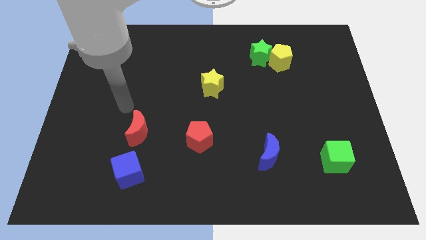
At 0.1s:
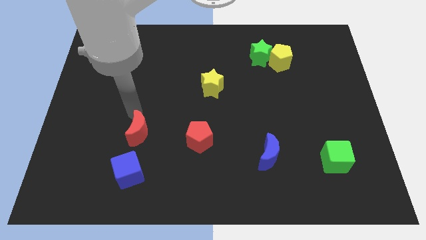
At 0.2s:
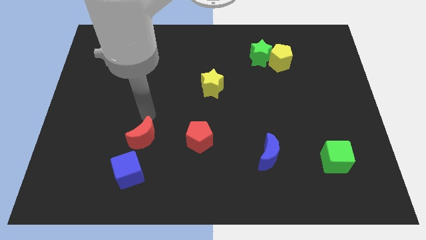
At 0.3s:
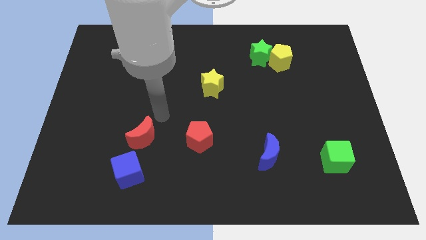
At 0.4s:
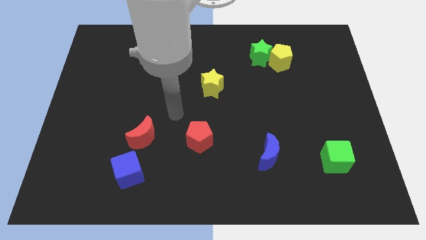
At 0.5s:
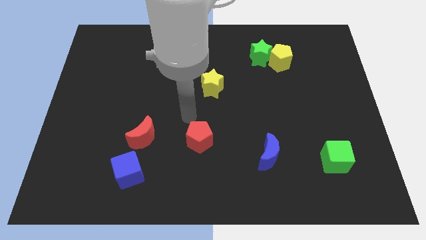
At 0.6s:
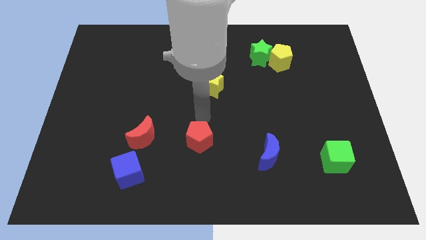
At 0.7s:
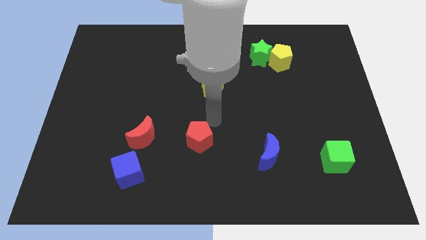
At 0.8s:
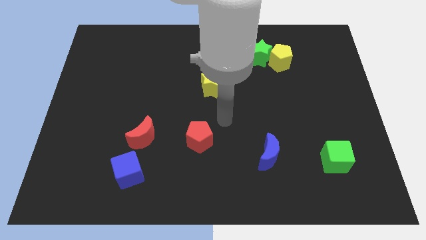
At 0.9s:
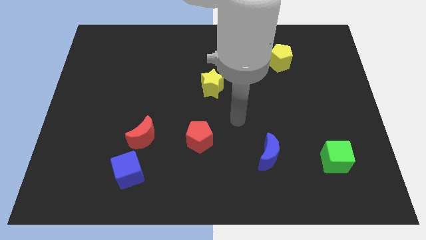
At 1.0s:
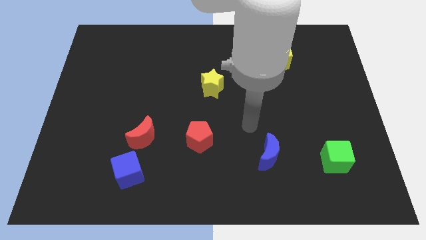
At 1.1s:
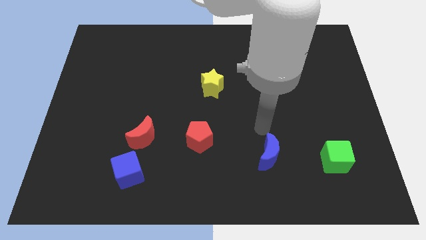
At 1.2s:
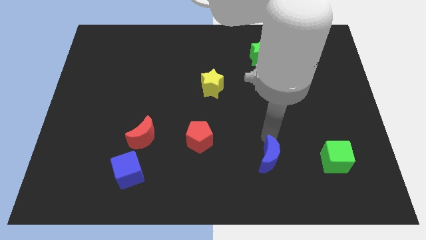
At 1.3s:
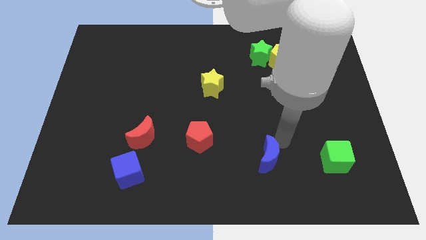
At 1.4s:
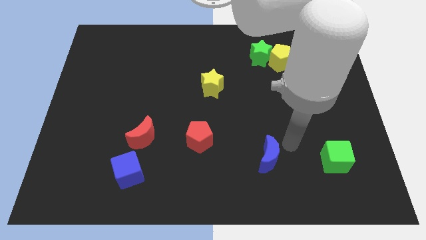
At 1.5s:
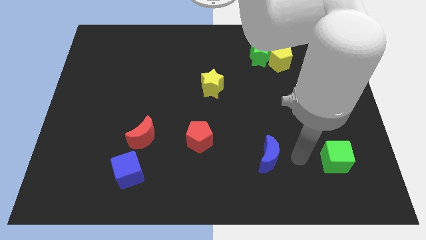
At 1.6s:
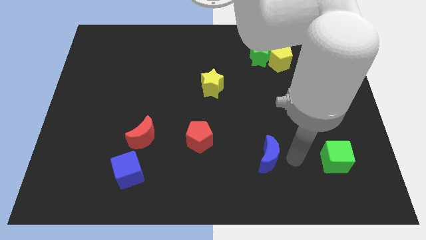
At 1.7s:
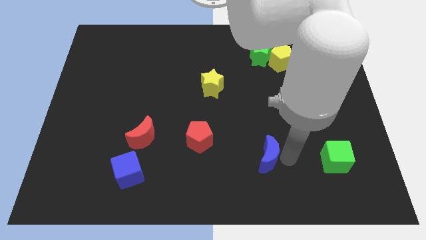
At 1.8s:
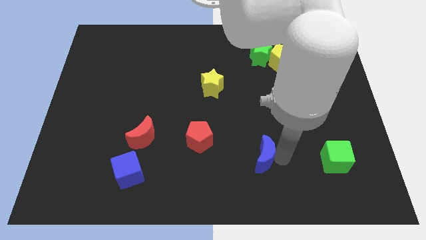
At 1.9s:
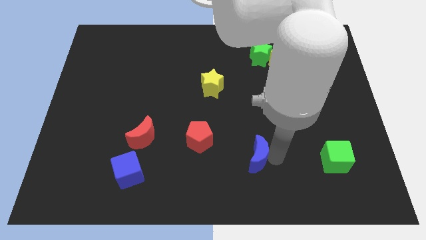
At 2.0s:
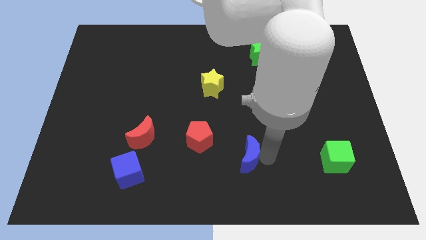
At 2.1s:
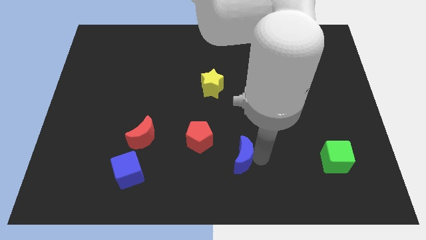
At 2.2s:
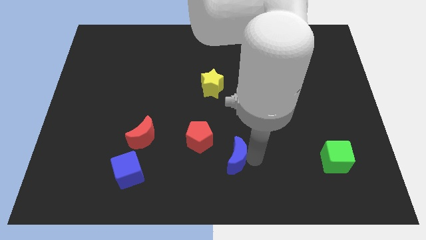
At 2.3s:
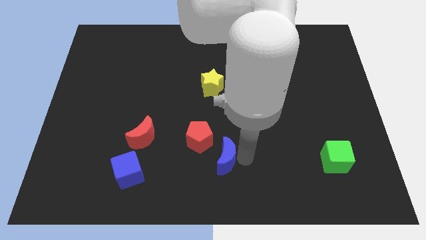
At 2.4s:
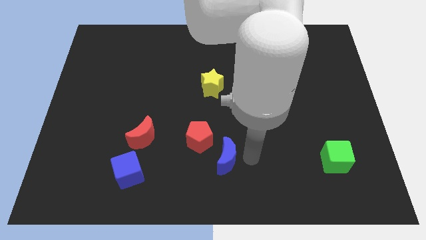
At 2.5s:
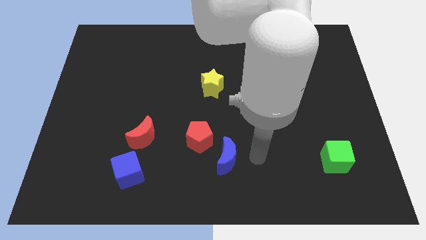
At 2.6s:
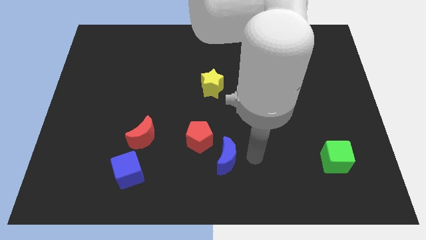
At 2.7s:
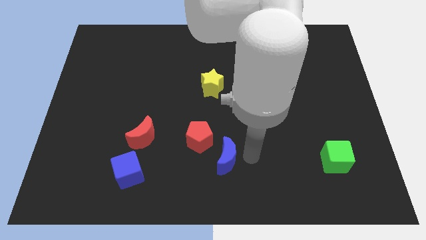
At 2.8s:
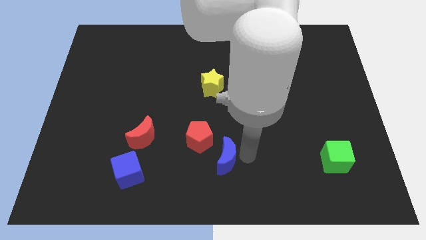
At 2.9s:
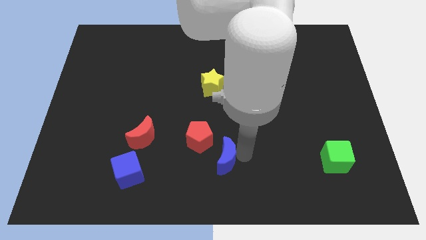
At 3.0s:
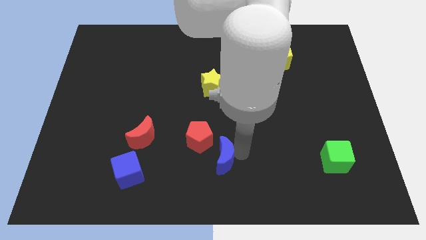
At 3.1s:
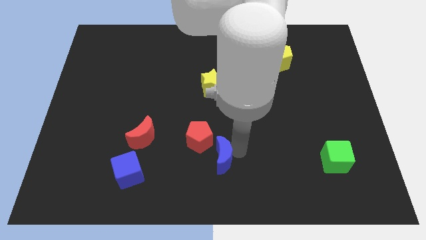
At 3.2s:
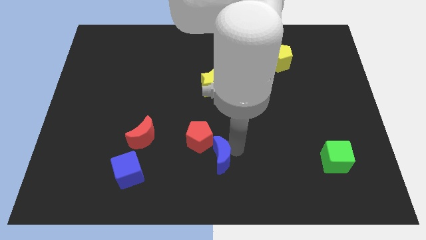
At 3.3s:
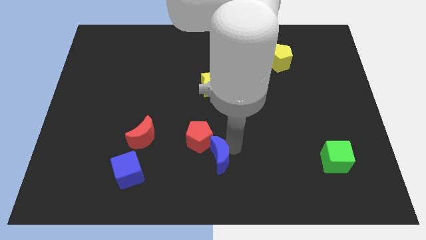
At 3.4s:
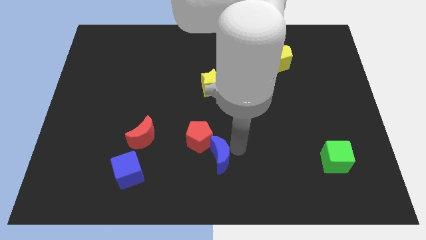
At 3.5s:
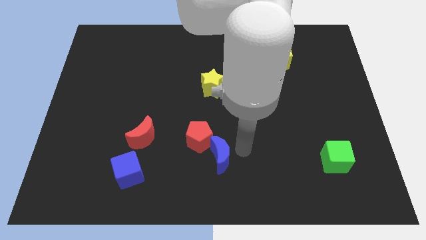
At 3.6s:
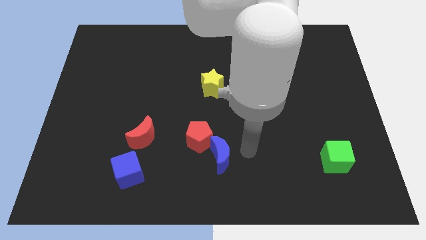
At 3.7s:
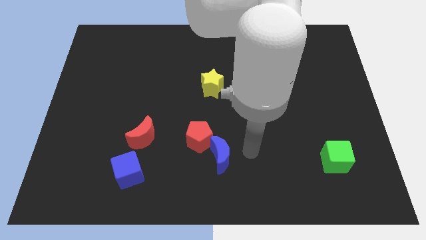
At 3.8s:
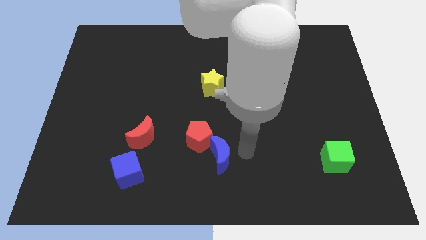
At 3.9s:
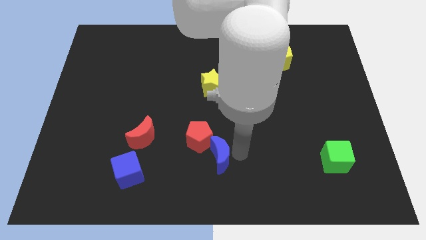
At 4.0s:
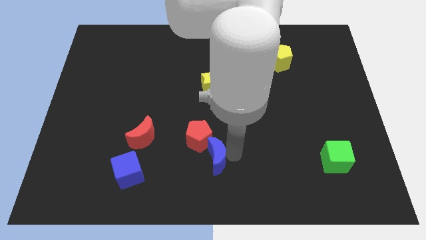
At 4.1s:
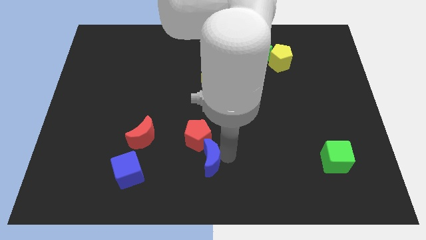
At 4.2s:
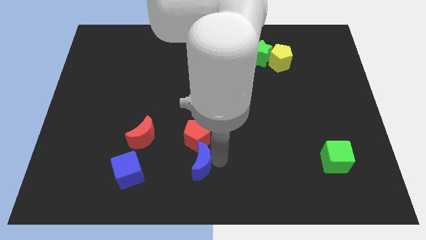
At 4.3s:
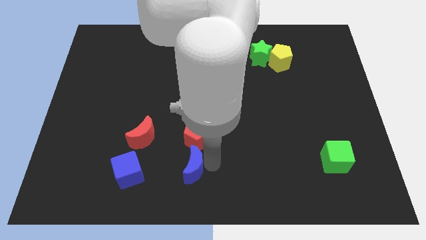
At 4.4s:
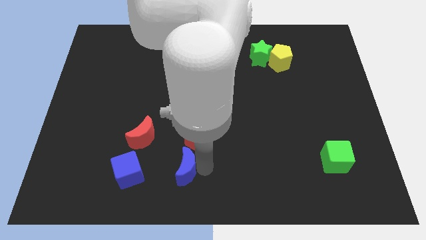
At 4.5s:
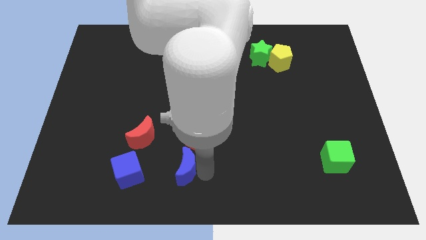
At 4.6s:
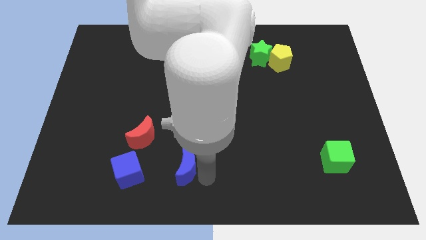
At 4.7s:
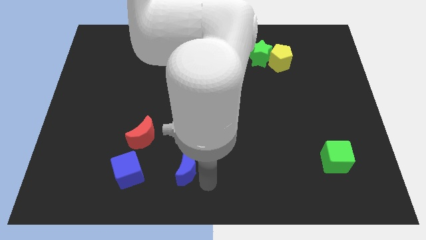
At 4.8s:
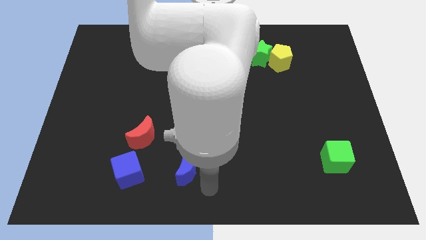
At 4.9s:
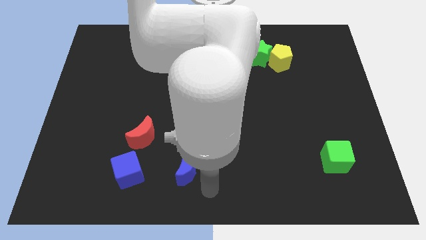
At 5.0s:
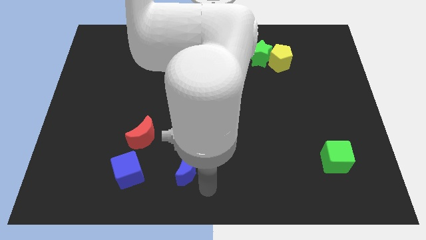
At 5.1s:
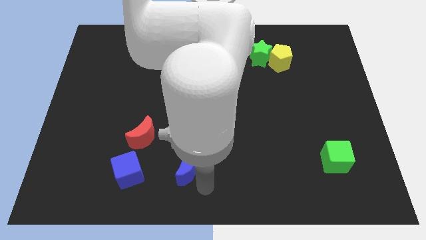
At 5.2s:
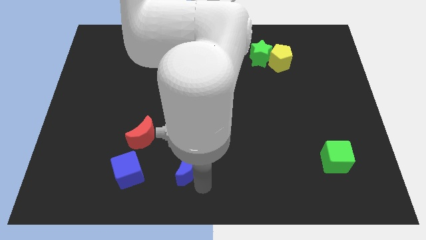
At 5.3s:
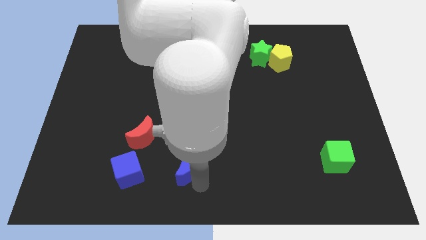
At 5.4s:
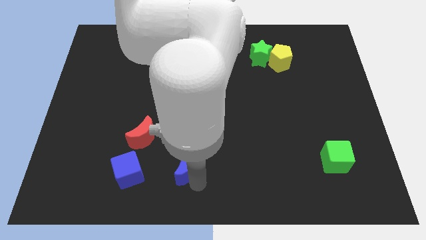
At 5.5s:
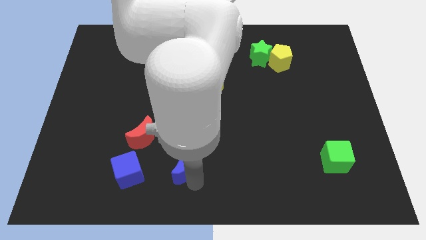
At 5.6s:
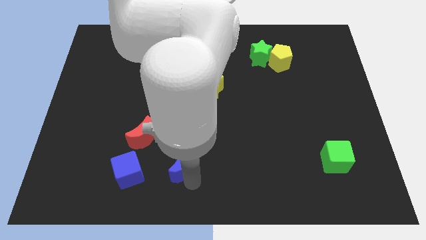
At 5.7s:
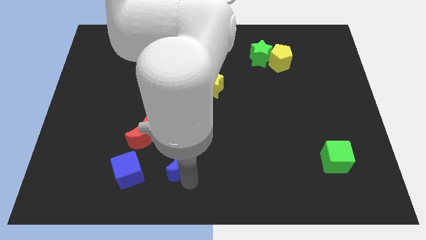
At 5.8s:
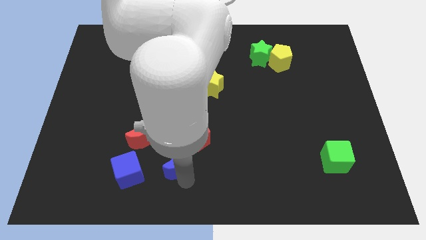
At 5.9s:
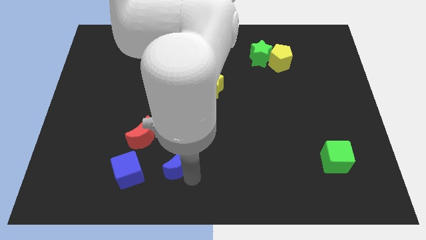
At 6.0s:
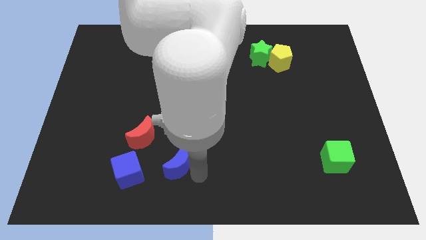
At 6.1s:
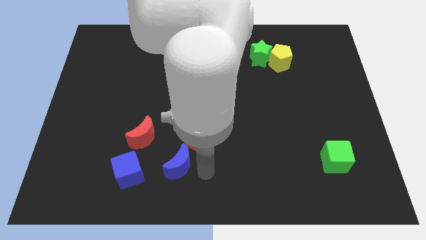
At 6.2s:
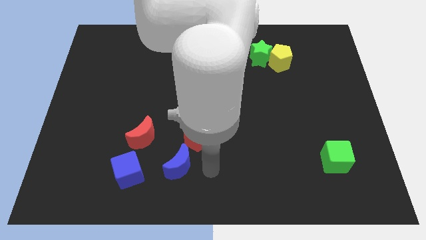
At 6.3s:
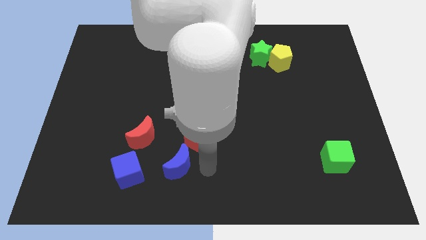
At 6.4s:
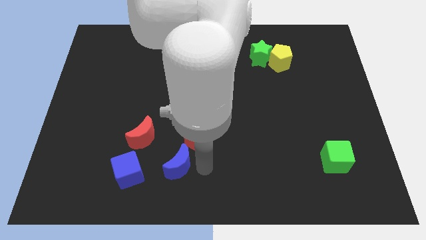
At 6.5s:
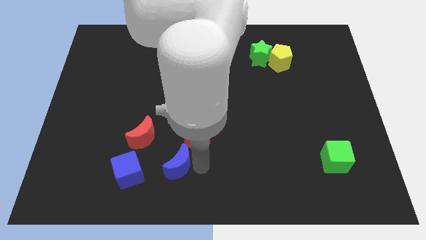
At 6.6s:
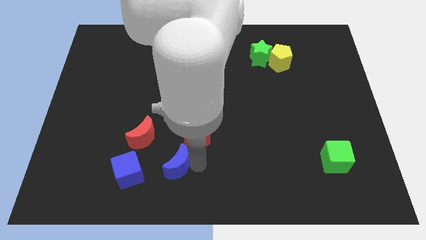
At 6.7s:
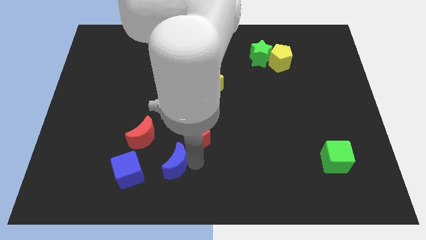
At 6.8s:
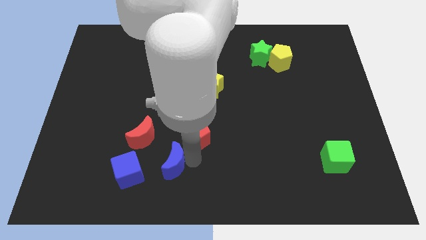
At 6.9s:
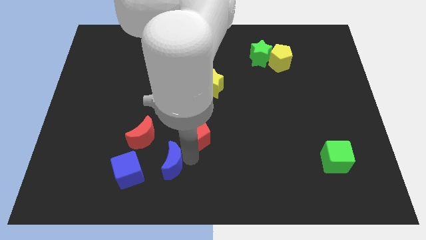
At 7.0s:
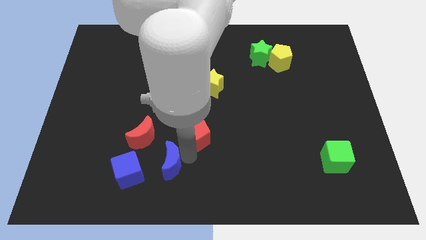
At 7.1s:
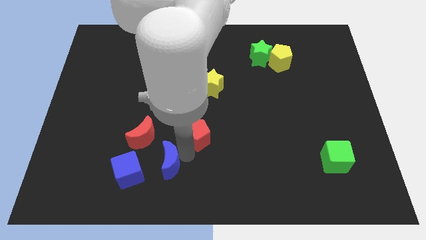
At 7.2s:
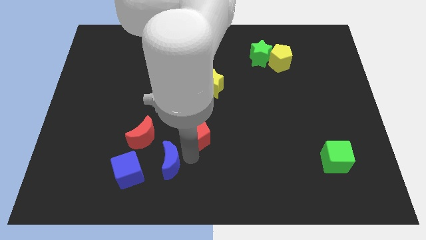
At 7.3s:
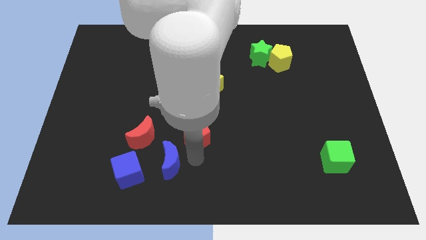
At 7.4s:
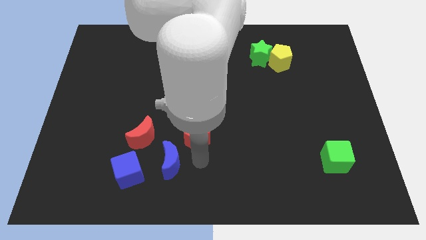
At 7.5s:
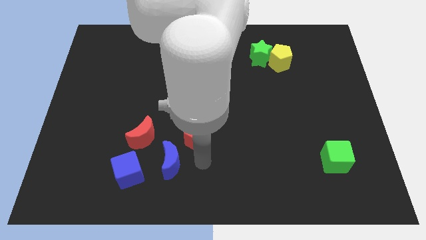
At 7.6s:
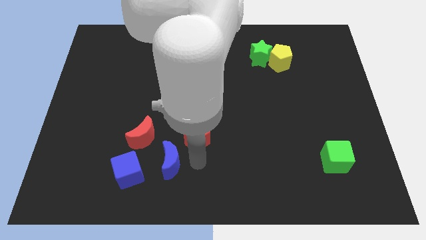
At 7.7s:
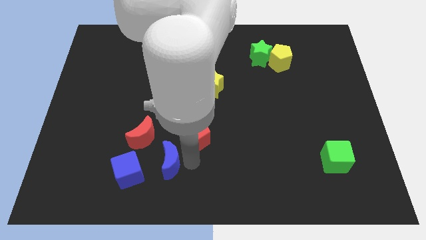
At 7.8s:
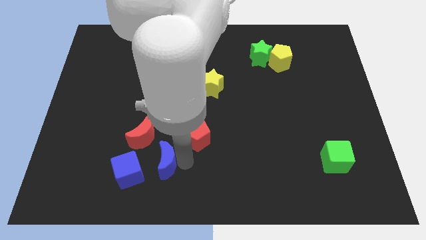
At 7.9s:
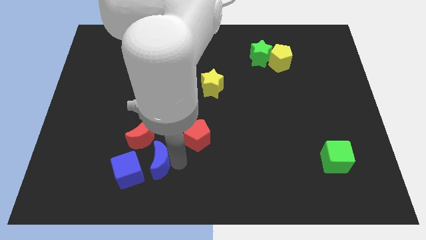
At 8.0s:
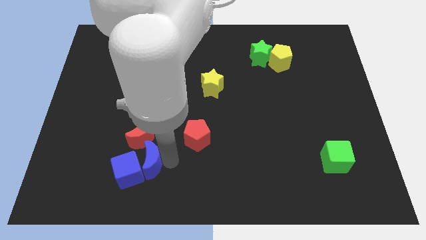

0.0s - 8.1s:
slide the blue moon towards the blue cube
